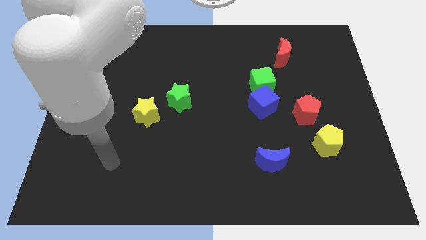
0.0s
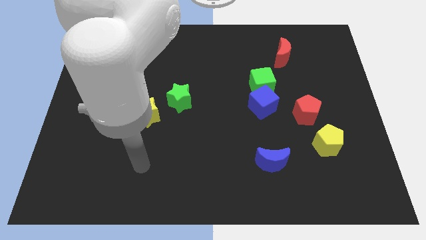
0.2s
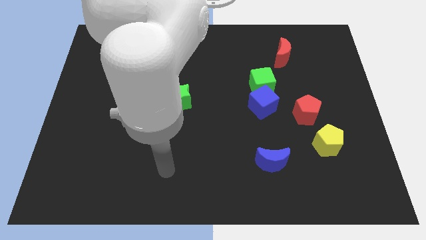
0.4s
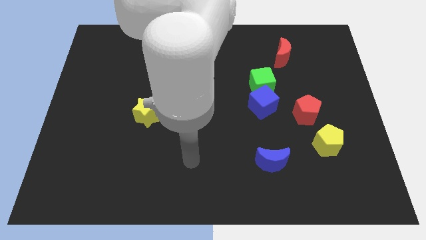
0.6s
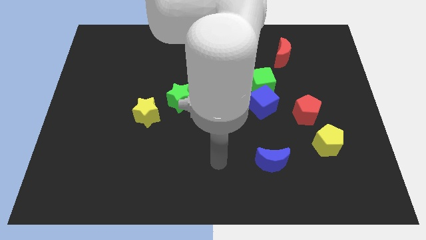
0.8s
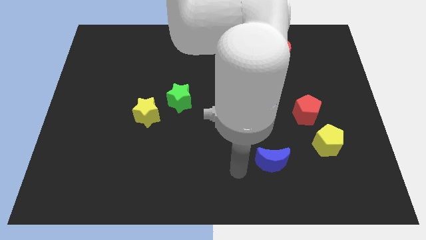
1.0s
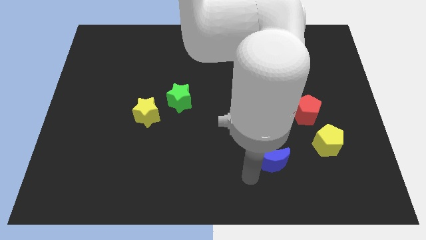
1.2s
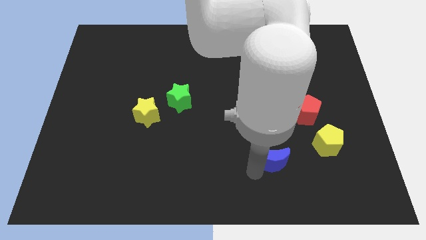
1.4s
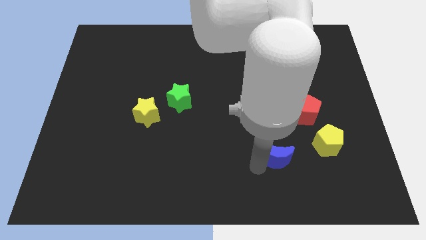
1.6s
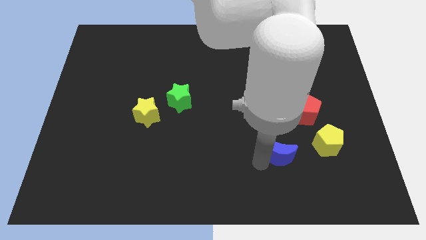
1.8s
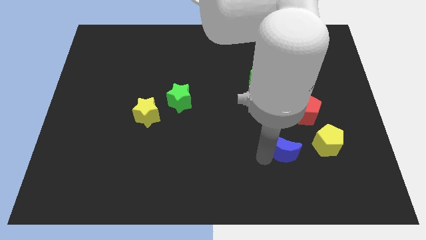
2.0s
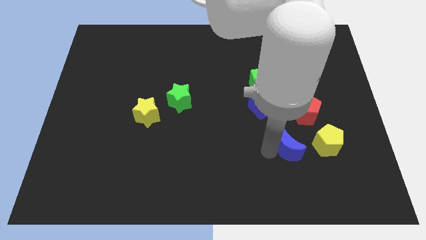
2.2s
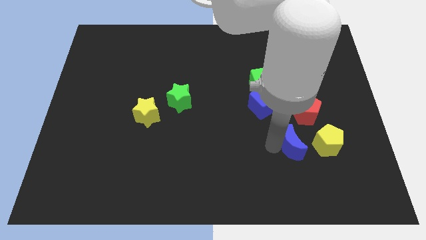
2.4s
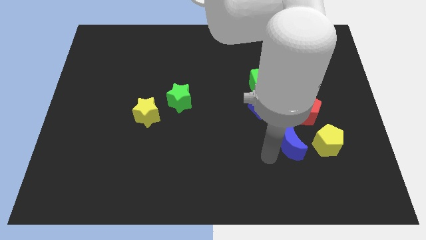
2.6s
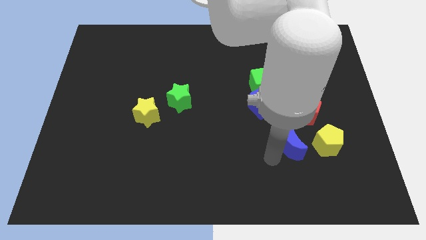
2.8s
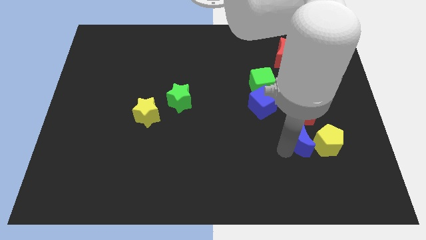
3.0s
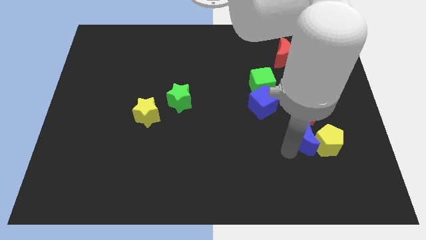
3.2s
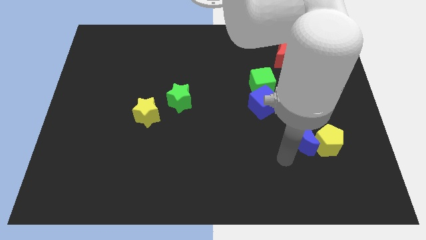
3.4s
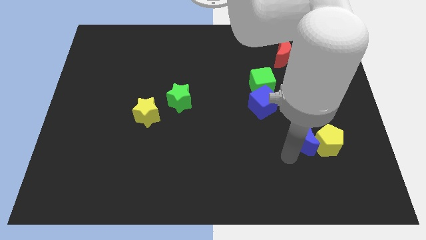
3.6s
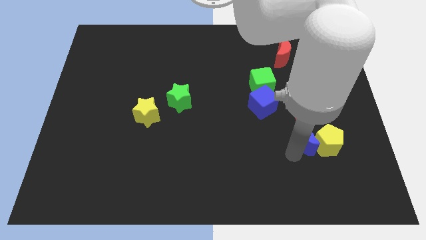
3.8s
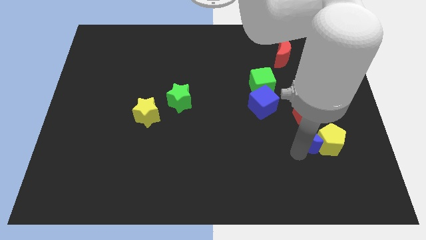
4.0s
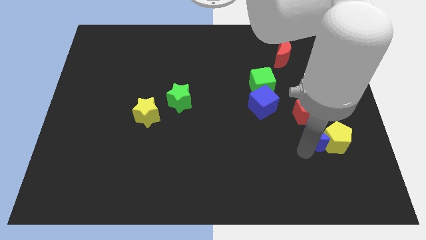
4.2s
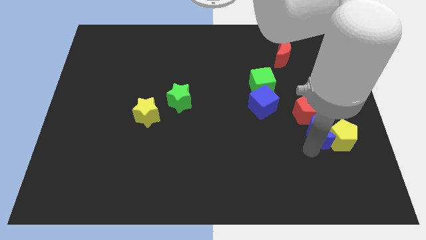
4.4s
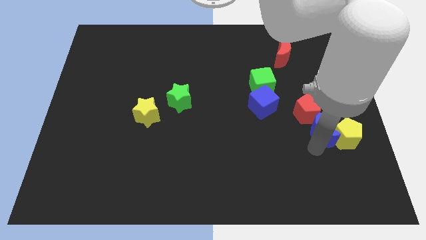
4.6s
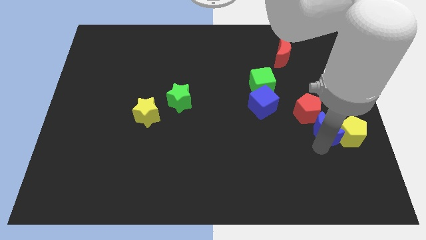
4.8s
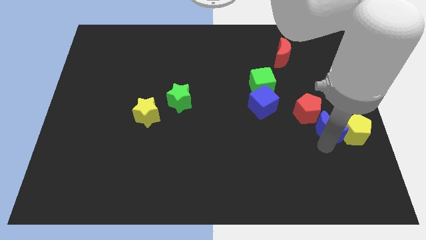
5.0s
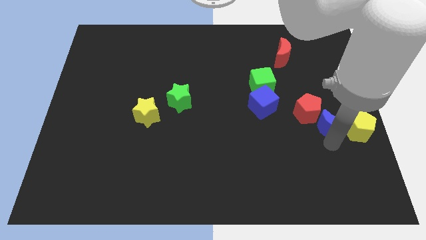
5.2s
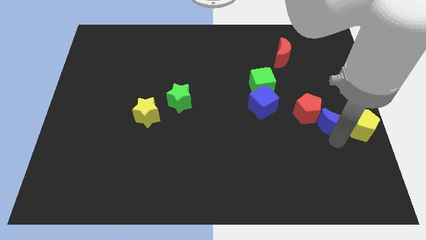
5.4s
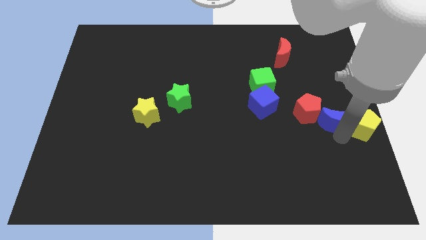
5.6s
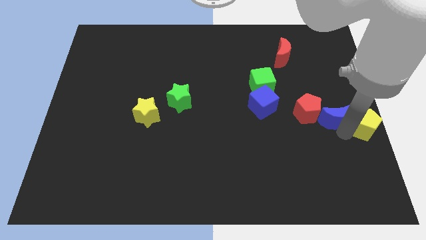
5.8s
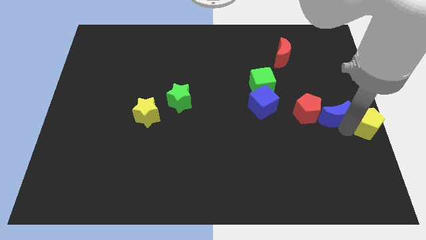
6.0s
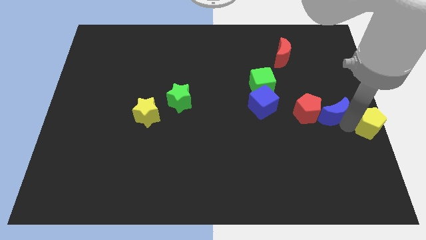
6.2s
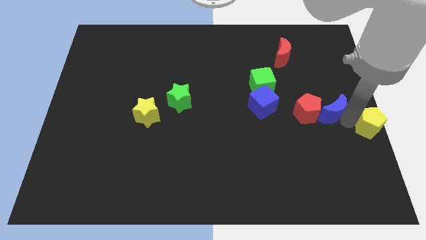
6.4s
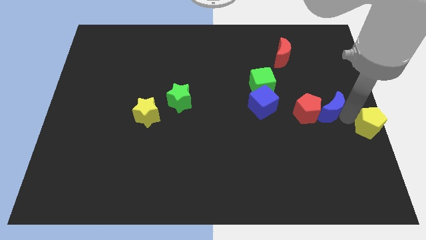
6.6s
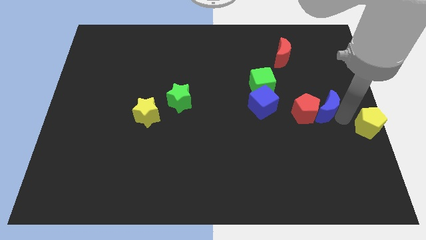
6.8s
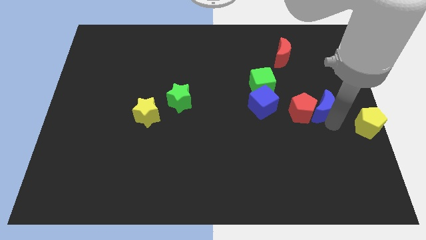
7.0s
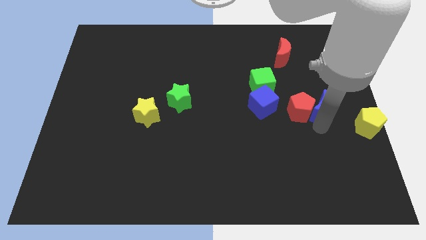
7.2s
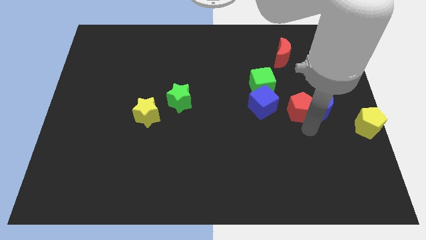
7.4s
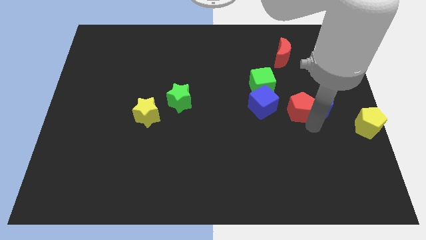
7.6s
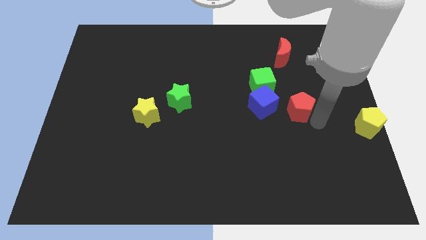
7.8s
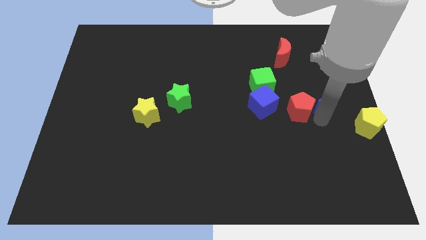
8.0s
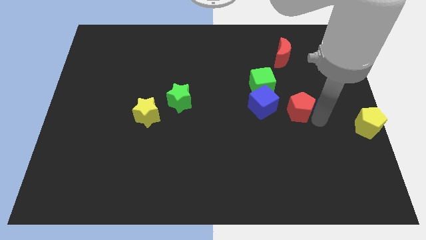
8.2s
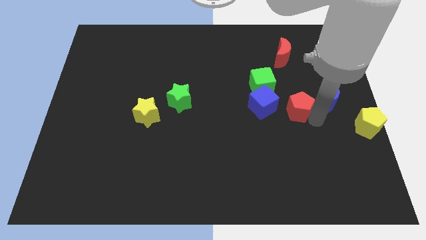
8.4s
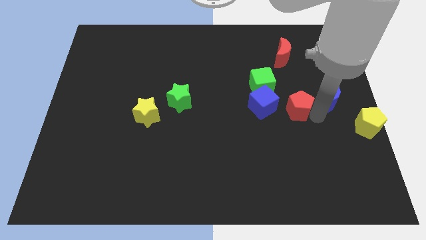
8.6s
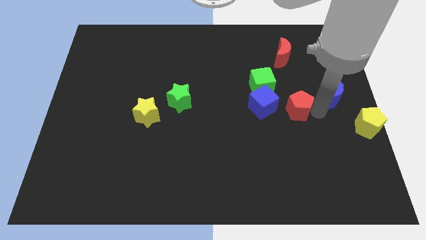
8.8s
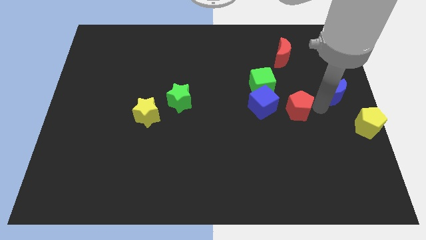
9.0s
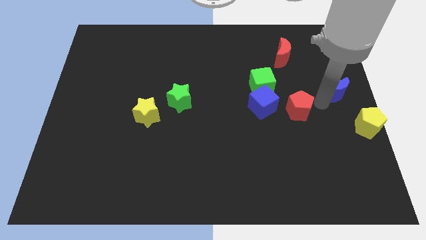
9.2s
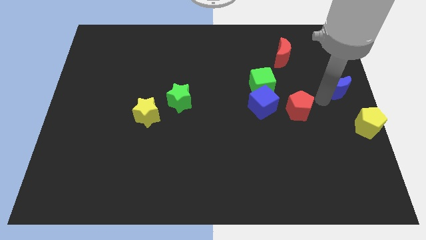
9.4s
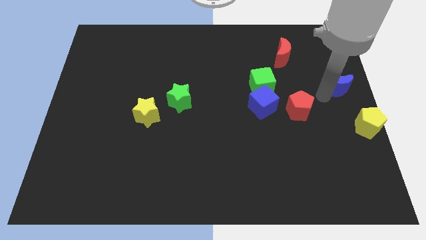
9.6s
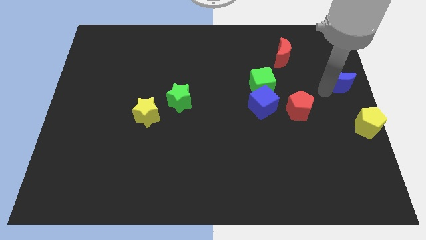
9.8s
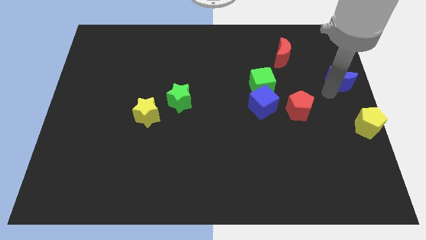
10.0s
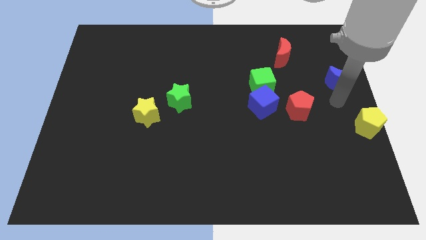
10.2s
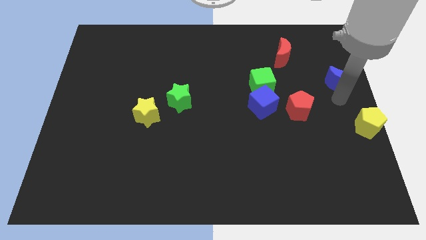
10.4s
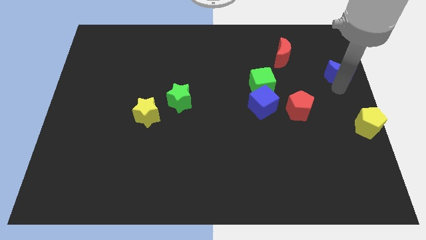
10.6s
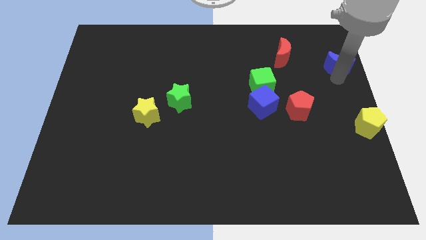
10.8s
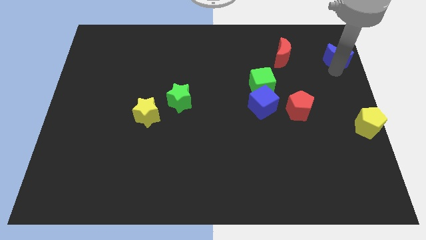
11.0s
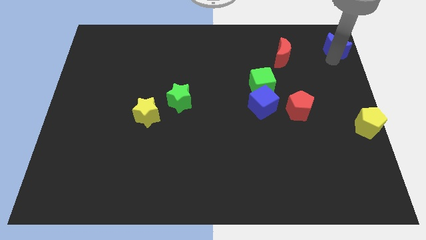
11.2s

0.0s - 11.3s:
push the blue moon to the top right

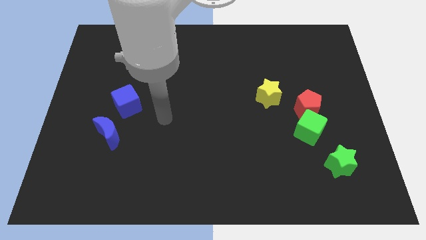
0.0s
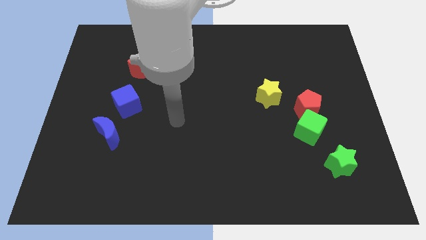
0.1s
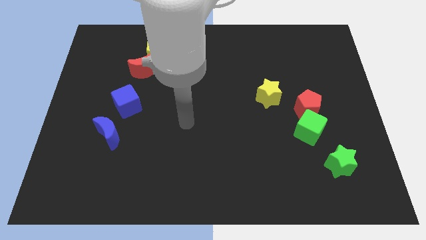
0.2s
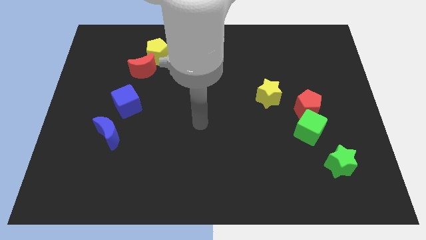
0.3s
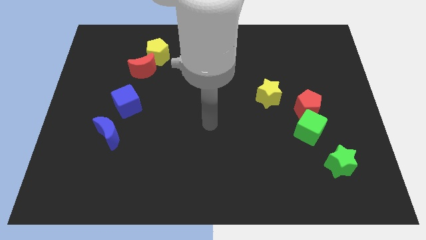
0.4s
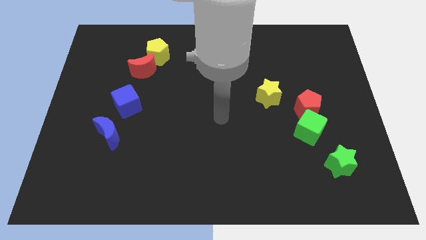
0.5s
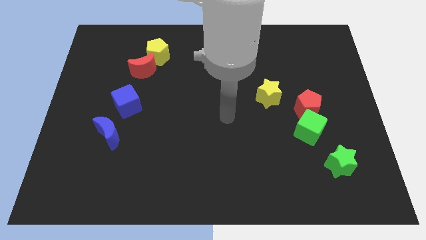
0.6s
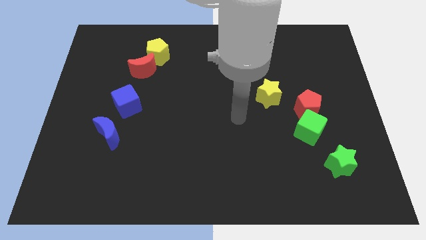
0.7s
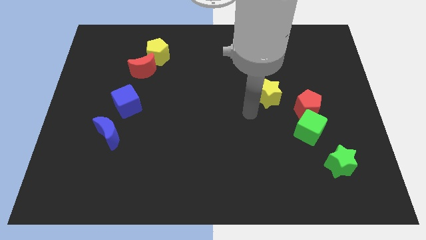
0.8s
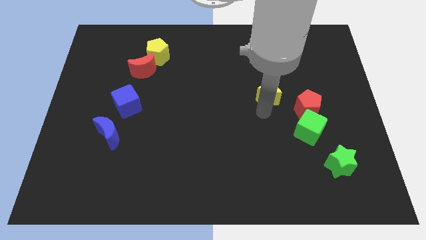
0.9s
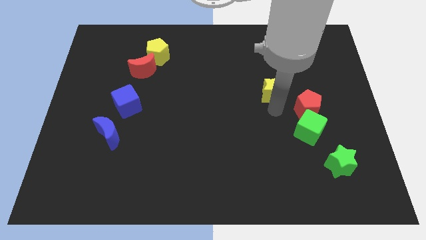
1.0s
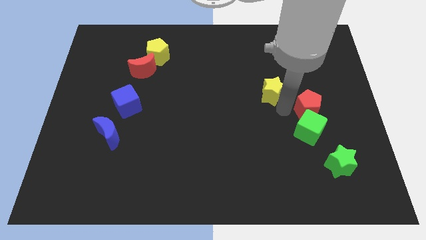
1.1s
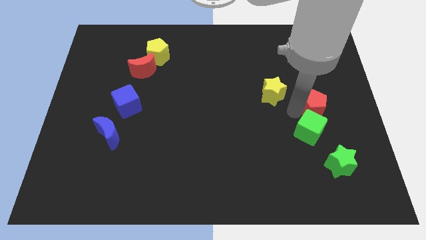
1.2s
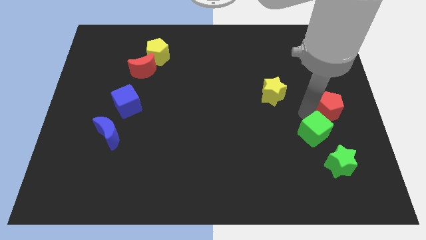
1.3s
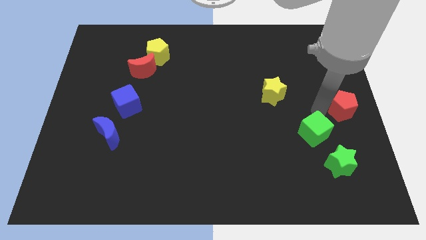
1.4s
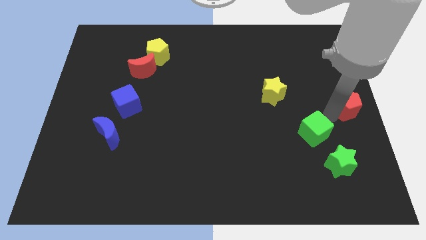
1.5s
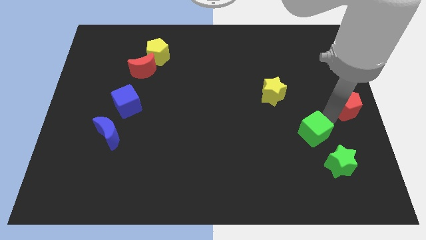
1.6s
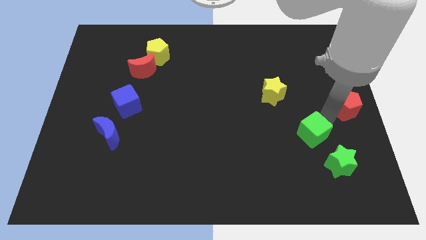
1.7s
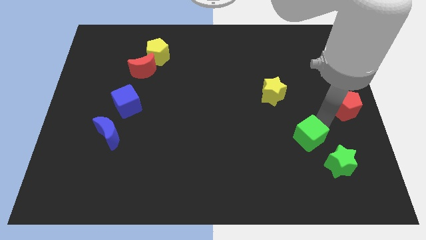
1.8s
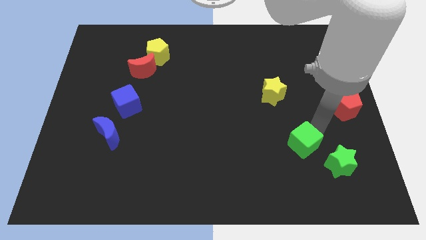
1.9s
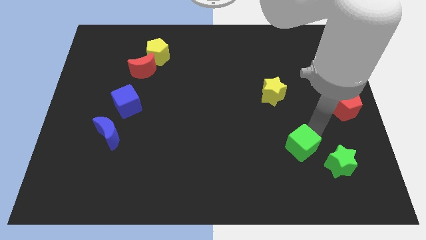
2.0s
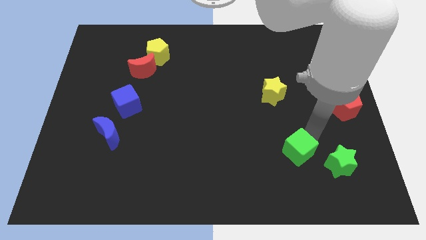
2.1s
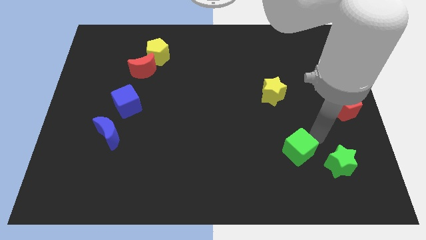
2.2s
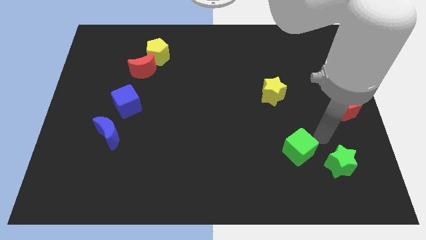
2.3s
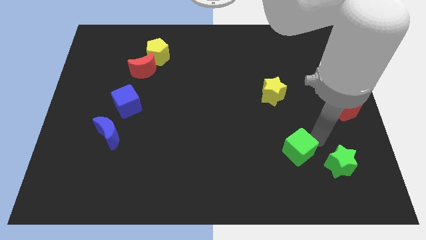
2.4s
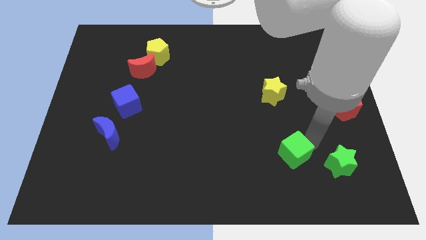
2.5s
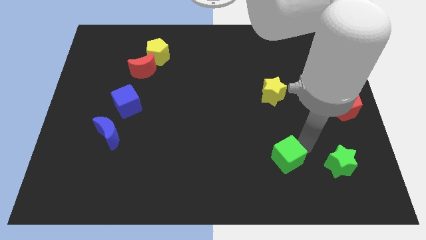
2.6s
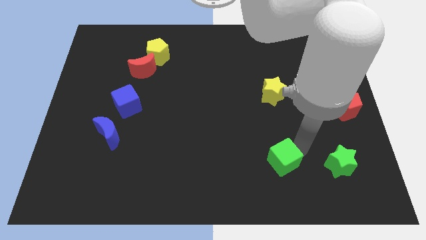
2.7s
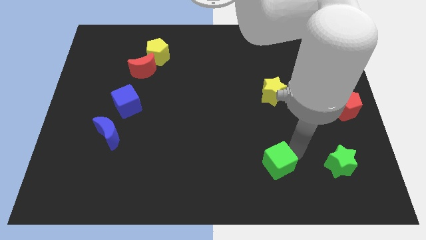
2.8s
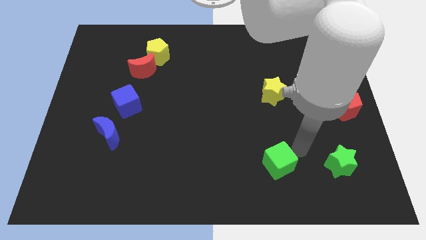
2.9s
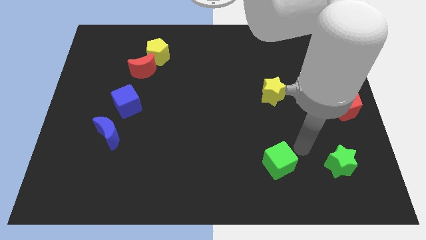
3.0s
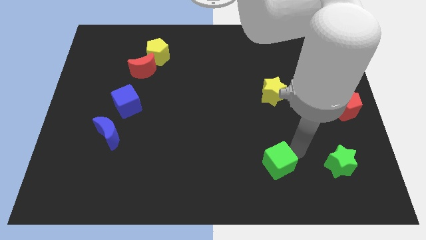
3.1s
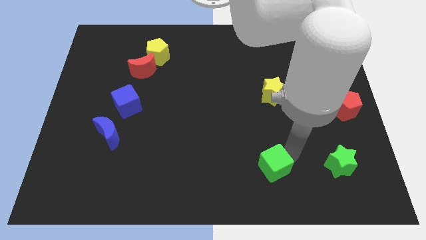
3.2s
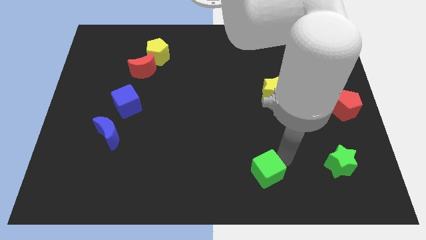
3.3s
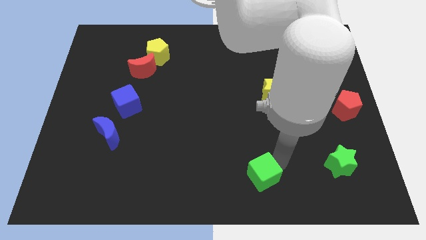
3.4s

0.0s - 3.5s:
push the green cube to the bottom
